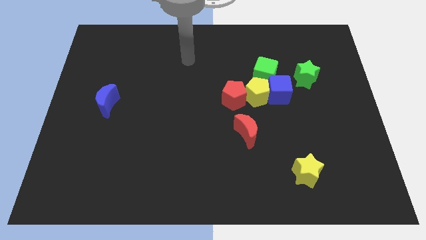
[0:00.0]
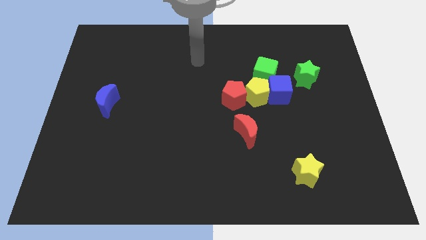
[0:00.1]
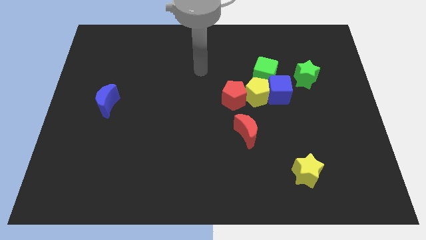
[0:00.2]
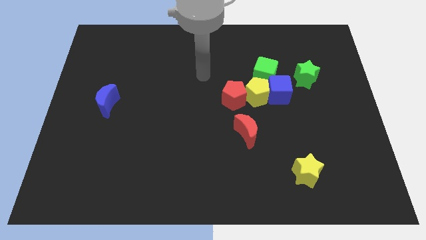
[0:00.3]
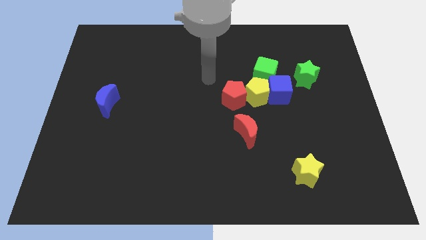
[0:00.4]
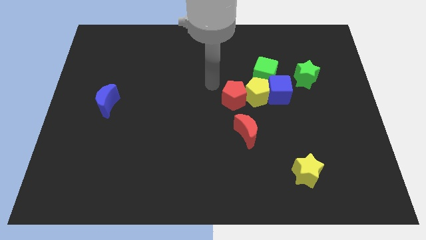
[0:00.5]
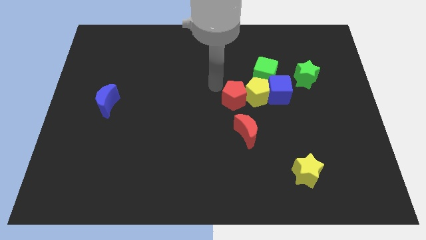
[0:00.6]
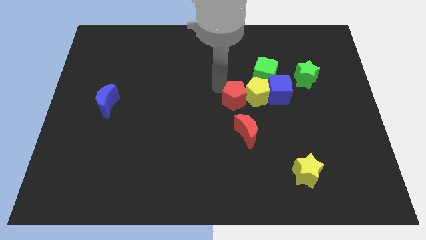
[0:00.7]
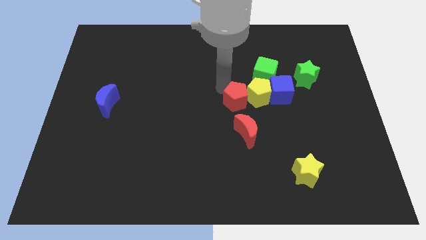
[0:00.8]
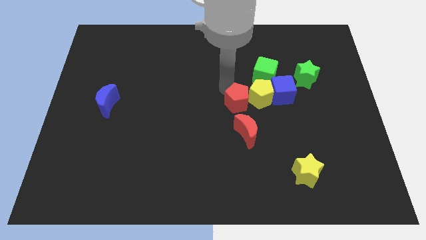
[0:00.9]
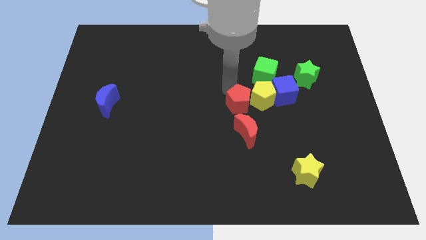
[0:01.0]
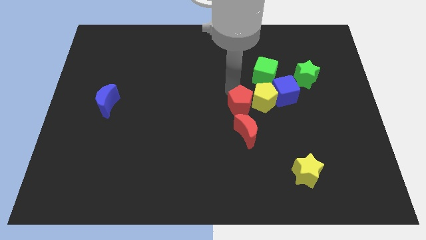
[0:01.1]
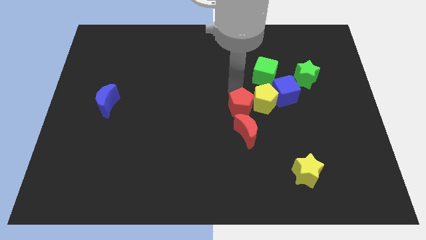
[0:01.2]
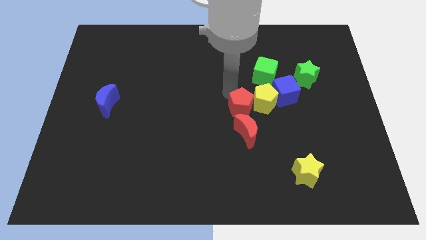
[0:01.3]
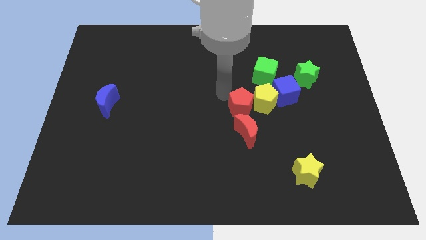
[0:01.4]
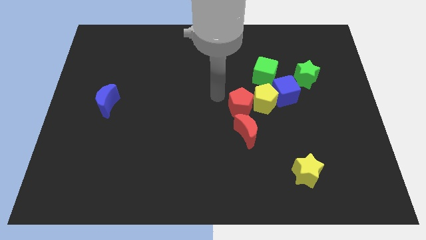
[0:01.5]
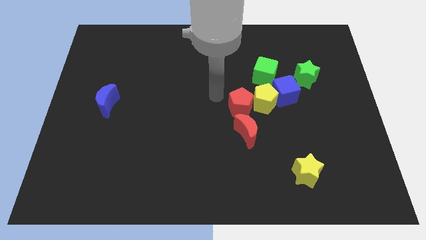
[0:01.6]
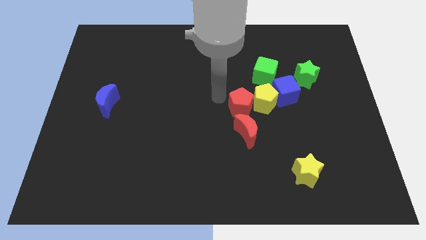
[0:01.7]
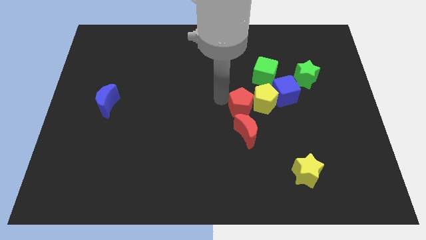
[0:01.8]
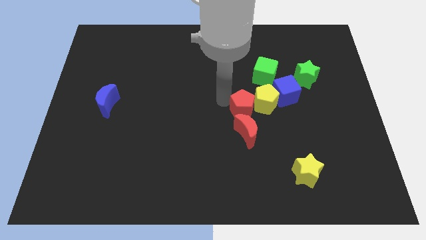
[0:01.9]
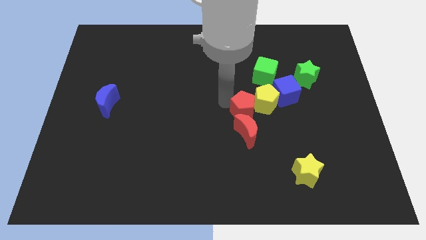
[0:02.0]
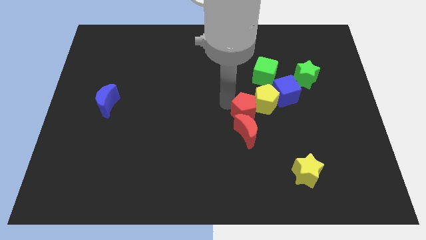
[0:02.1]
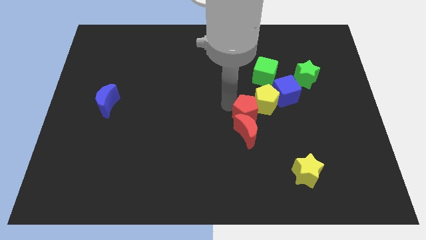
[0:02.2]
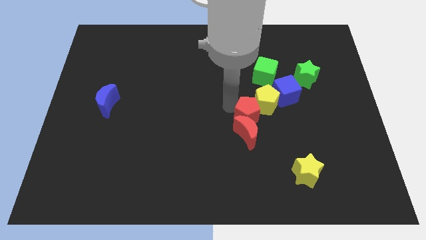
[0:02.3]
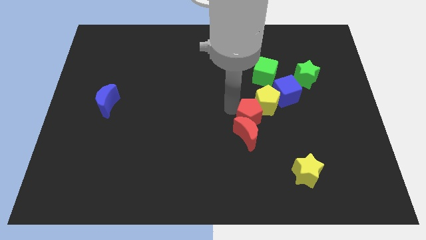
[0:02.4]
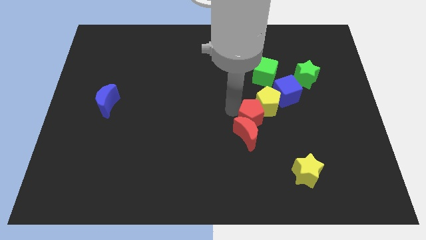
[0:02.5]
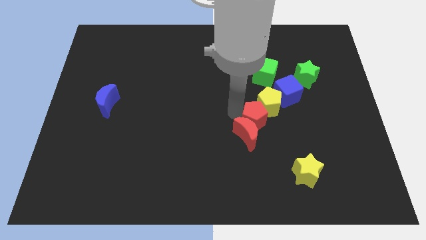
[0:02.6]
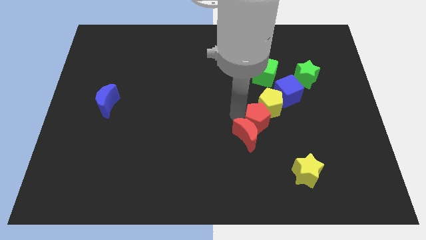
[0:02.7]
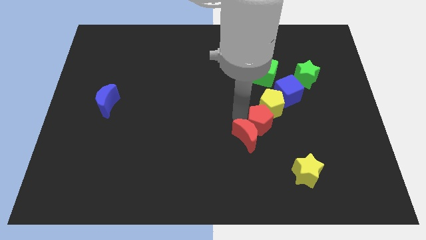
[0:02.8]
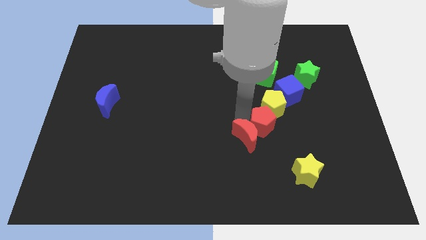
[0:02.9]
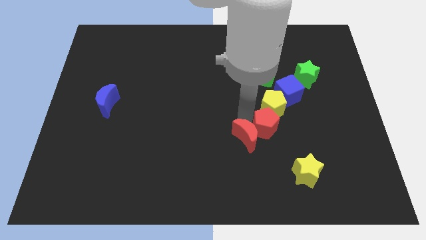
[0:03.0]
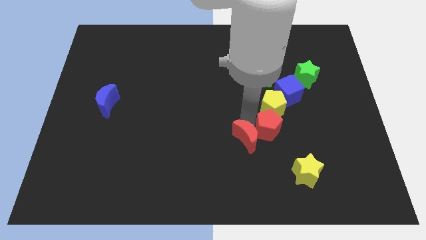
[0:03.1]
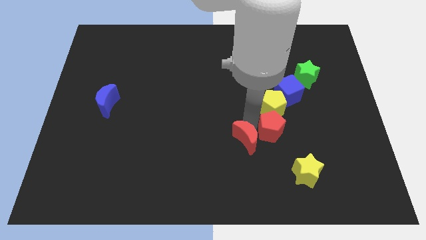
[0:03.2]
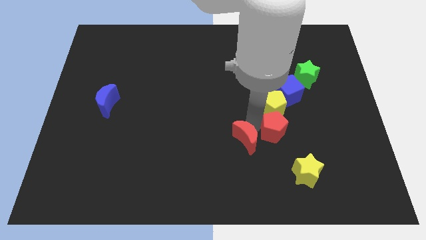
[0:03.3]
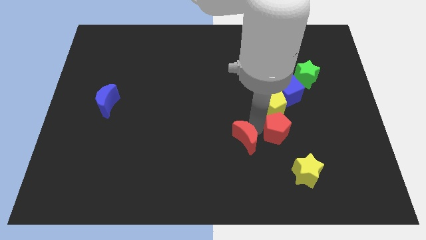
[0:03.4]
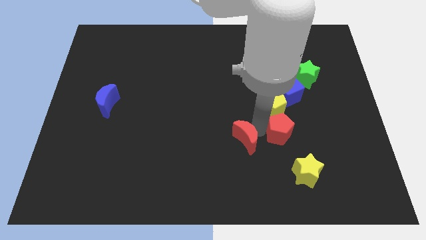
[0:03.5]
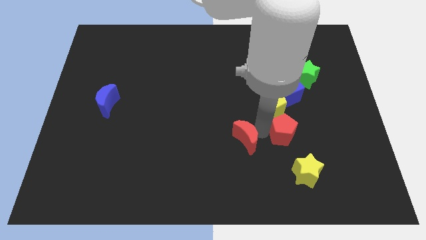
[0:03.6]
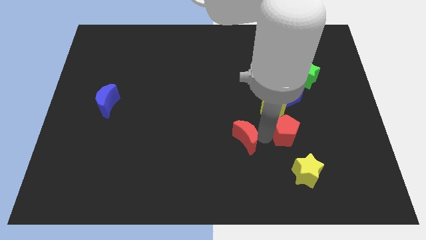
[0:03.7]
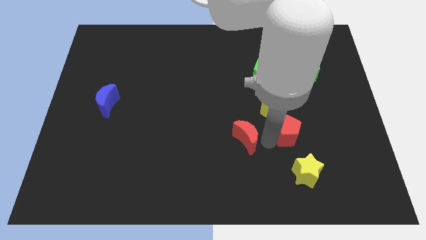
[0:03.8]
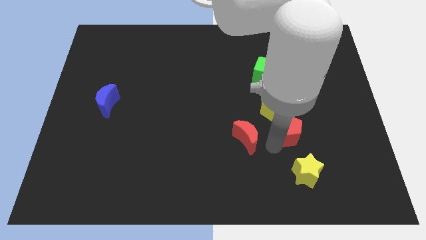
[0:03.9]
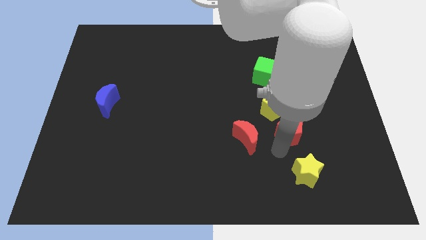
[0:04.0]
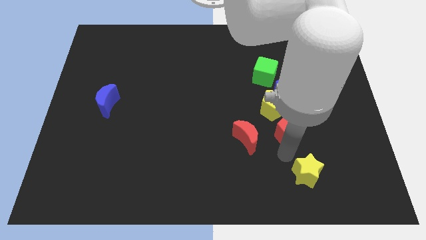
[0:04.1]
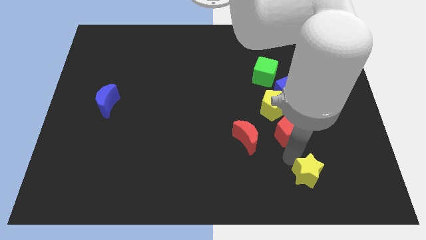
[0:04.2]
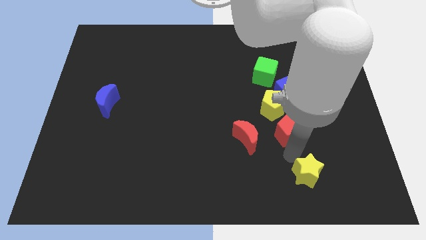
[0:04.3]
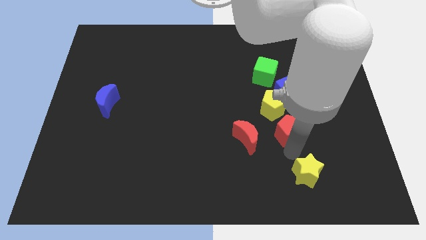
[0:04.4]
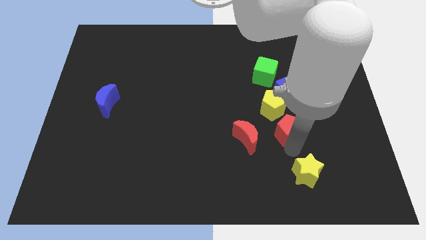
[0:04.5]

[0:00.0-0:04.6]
push the red pentagon to the right somewhat

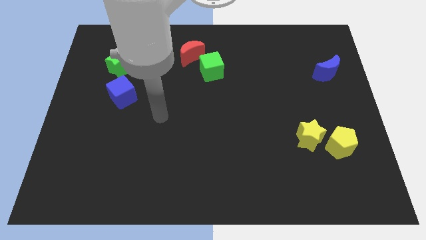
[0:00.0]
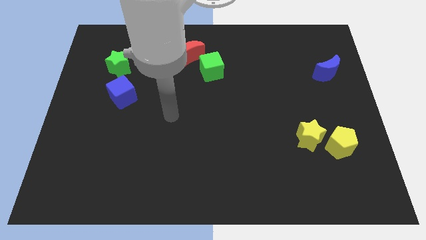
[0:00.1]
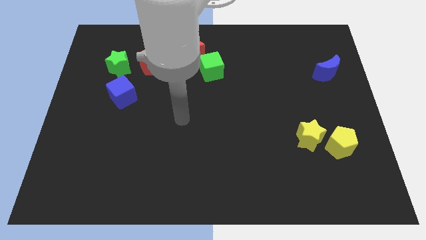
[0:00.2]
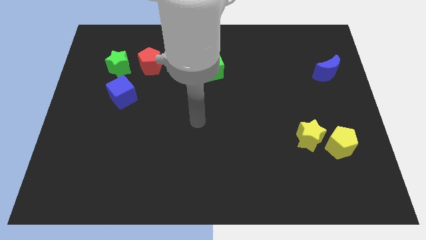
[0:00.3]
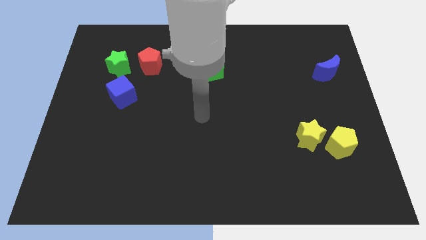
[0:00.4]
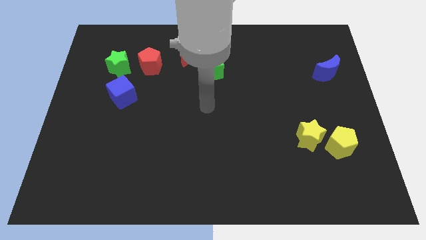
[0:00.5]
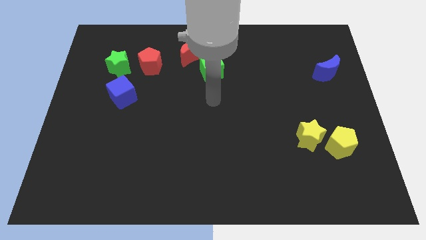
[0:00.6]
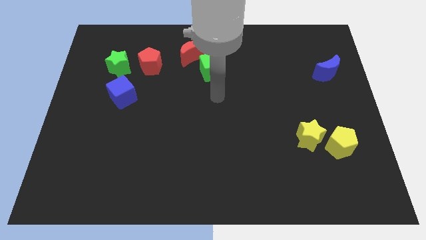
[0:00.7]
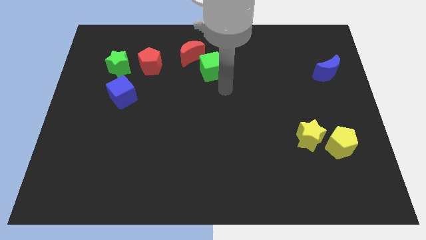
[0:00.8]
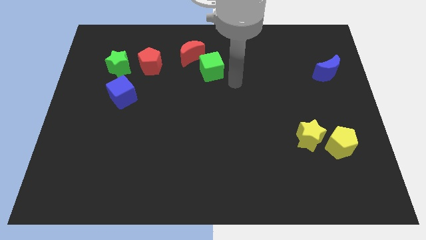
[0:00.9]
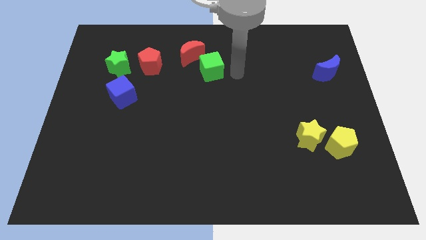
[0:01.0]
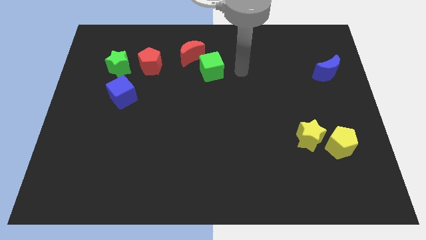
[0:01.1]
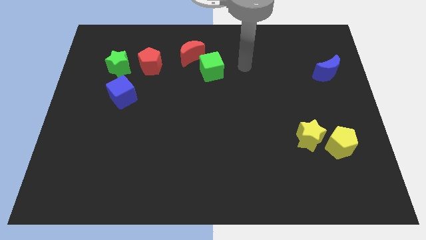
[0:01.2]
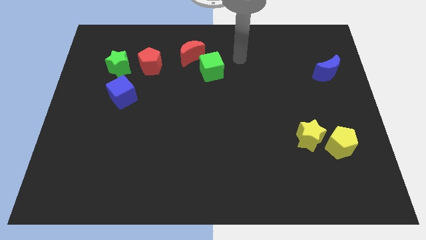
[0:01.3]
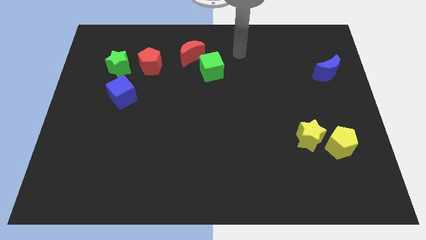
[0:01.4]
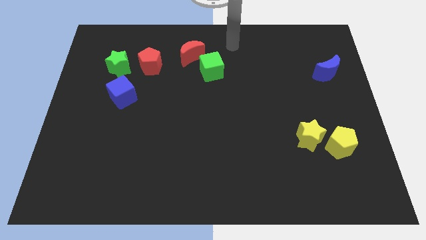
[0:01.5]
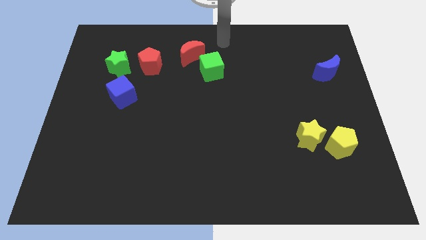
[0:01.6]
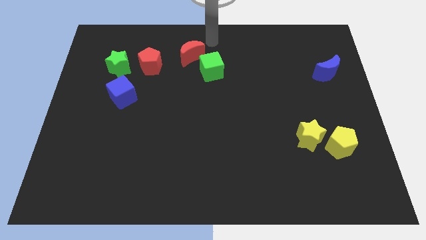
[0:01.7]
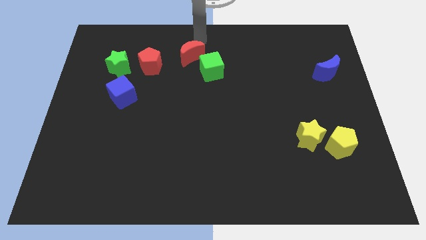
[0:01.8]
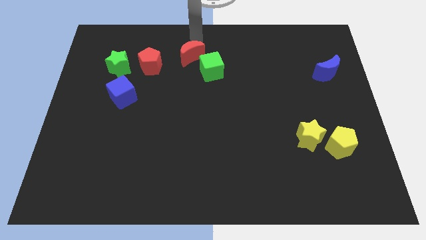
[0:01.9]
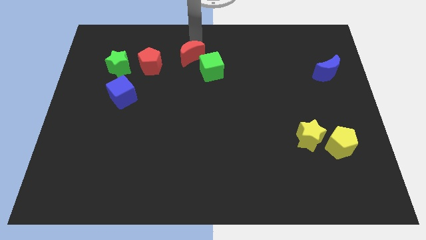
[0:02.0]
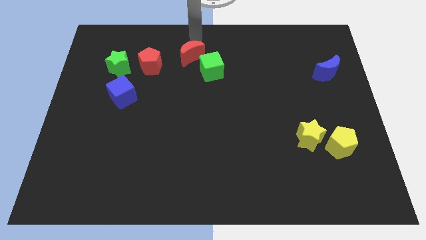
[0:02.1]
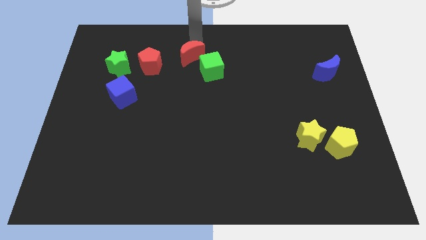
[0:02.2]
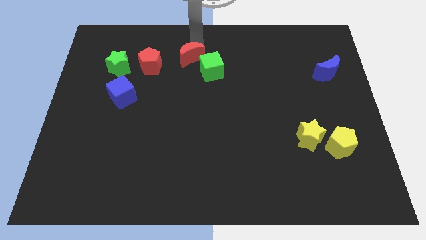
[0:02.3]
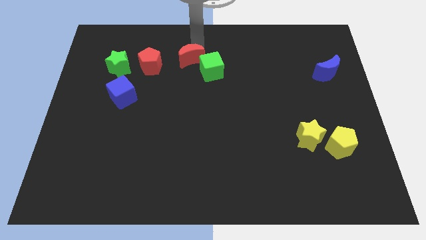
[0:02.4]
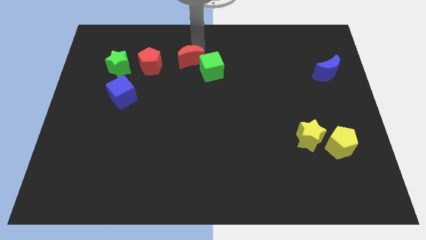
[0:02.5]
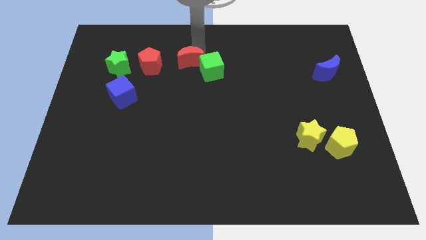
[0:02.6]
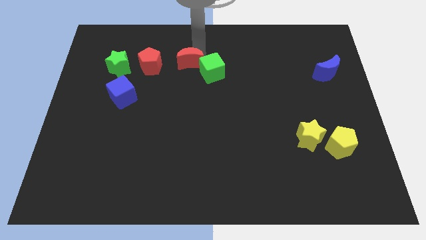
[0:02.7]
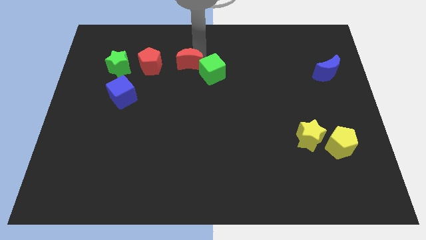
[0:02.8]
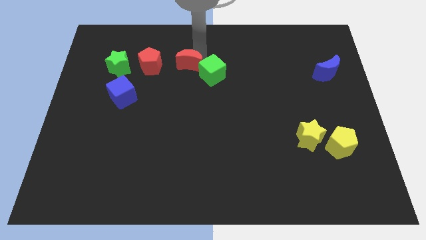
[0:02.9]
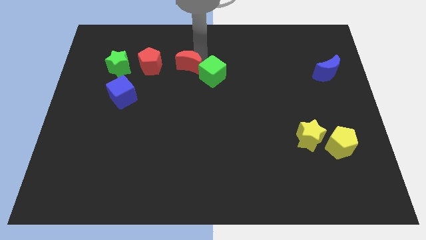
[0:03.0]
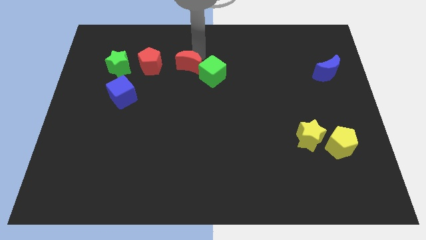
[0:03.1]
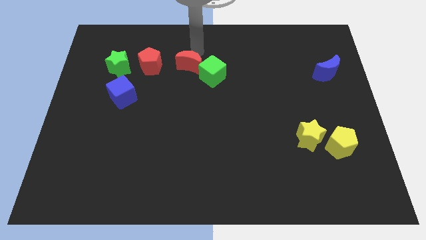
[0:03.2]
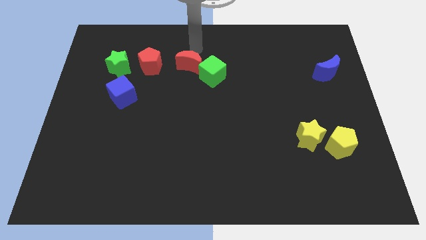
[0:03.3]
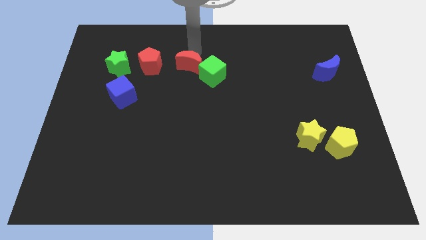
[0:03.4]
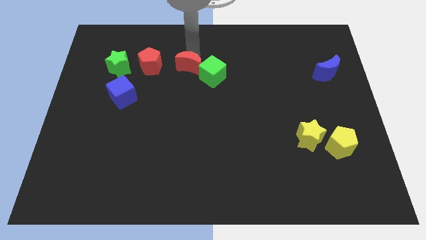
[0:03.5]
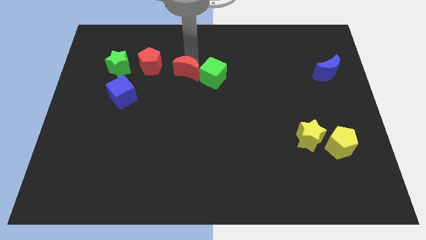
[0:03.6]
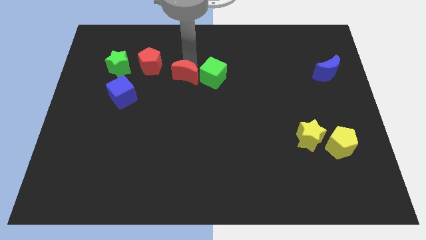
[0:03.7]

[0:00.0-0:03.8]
slightly slide the red moon down

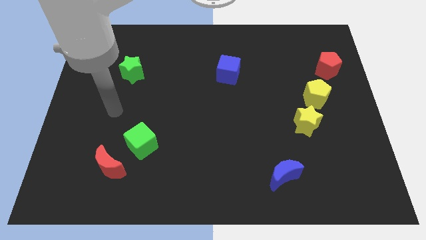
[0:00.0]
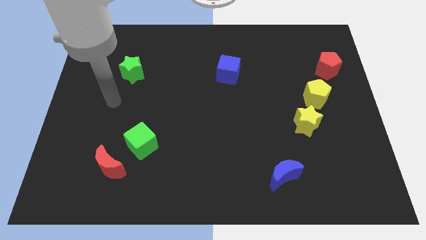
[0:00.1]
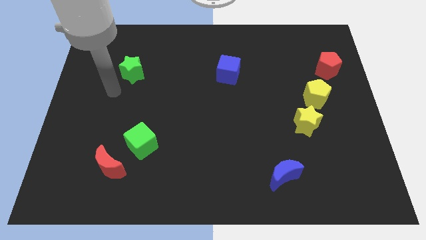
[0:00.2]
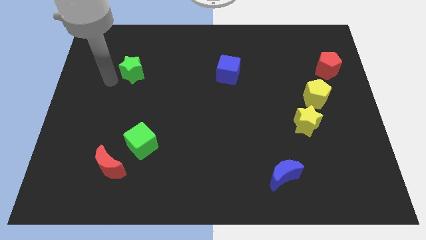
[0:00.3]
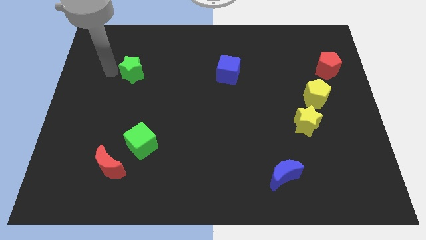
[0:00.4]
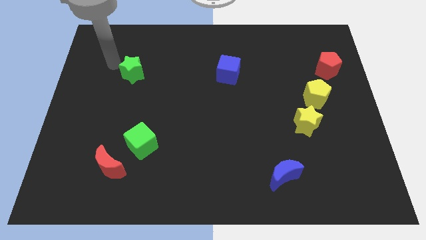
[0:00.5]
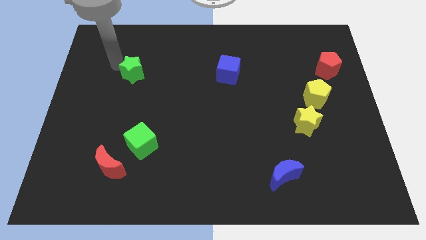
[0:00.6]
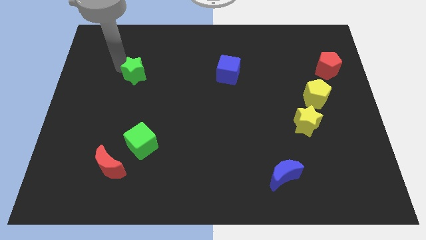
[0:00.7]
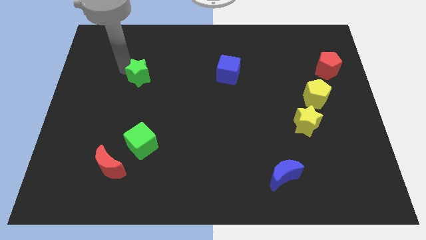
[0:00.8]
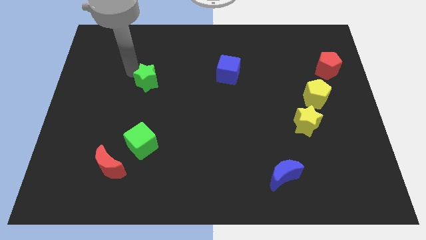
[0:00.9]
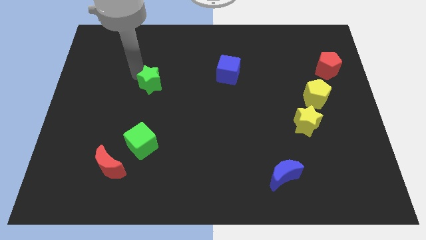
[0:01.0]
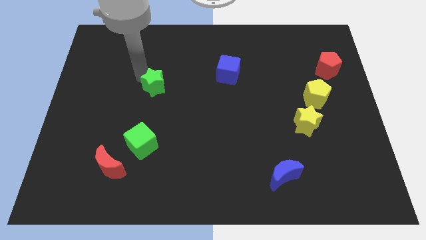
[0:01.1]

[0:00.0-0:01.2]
push the green star a little downwards and right
